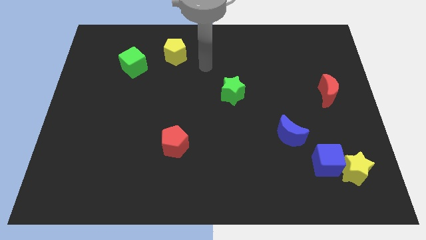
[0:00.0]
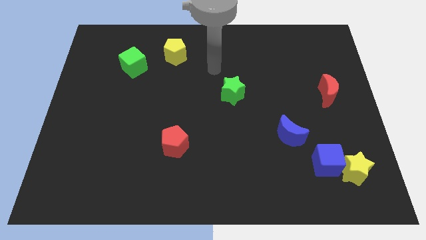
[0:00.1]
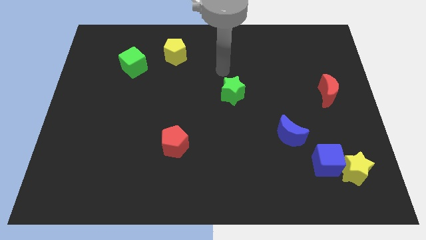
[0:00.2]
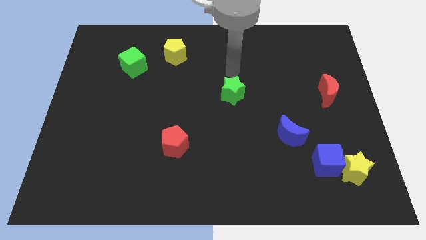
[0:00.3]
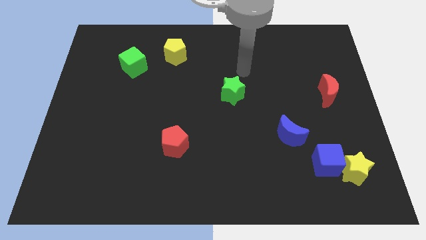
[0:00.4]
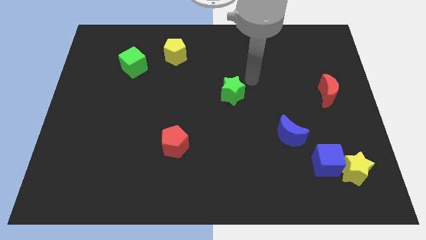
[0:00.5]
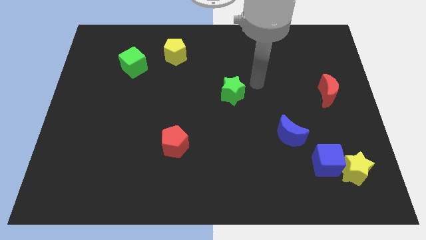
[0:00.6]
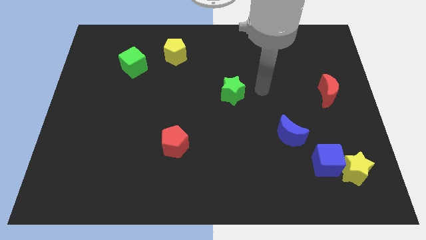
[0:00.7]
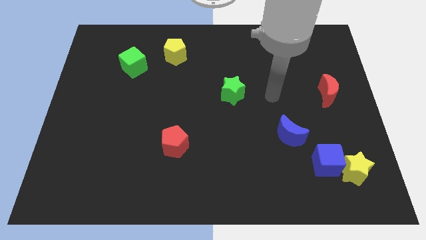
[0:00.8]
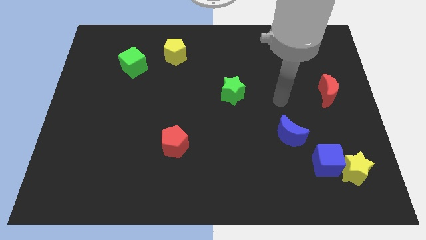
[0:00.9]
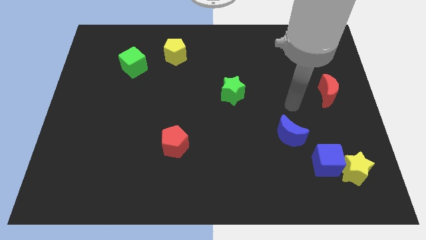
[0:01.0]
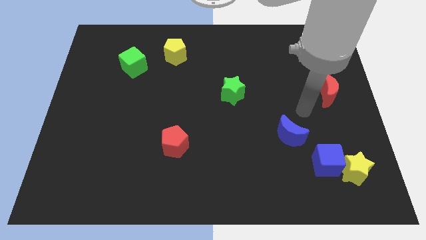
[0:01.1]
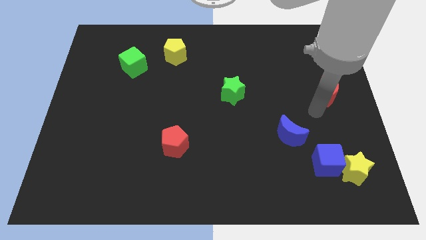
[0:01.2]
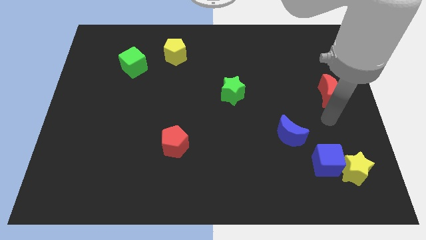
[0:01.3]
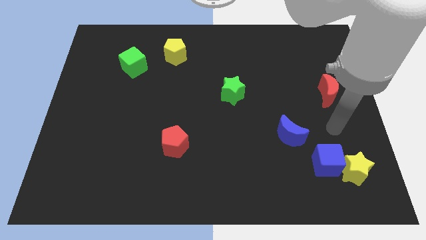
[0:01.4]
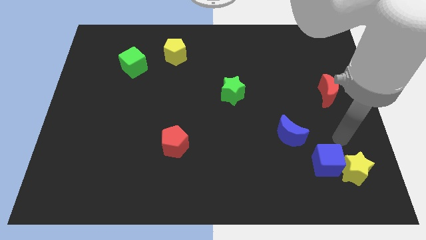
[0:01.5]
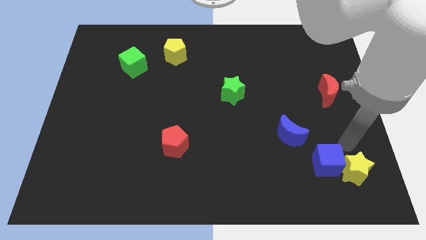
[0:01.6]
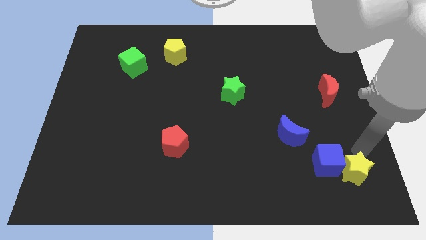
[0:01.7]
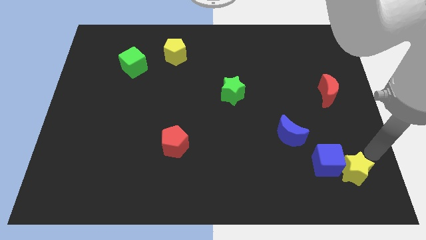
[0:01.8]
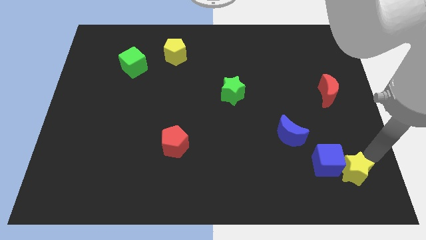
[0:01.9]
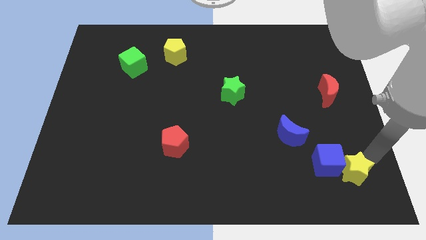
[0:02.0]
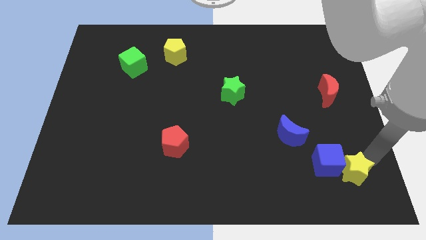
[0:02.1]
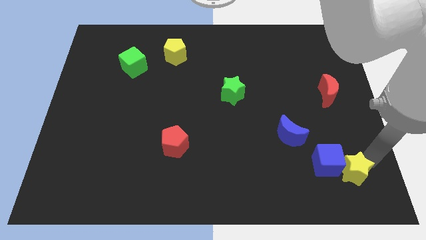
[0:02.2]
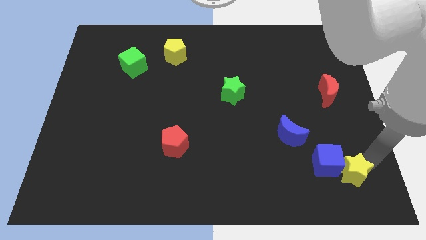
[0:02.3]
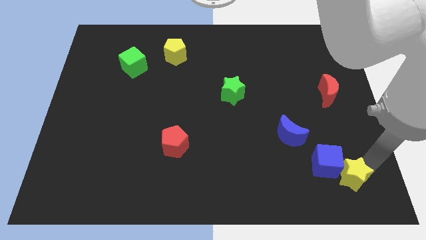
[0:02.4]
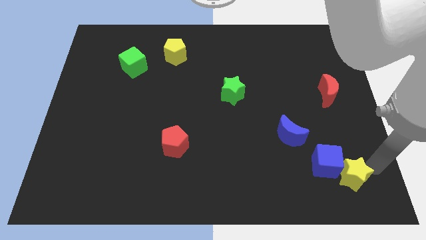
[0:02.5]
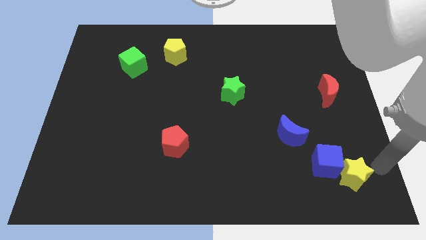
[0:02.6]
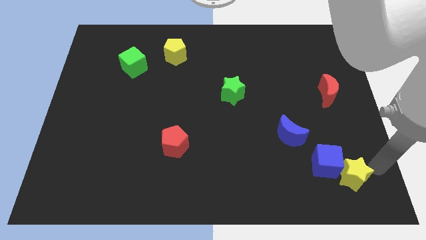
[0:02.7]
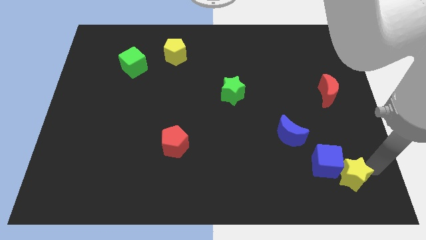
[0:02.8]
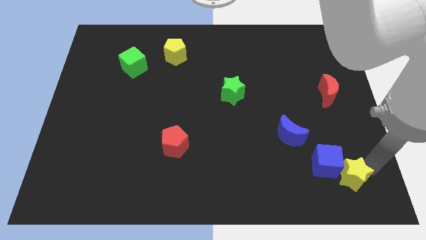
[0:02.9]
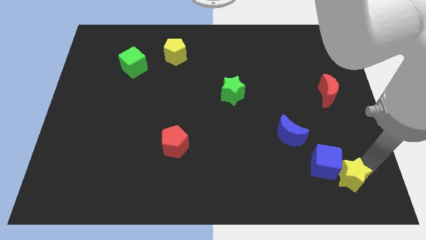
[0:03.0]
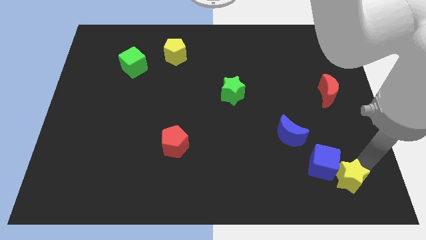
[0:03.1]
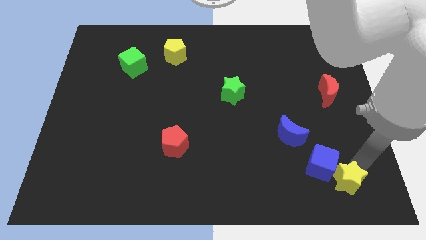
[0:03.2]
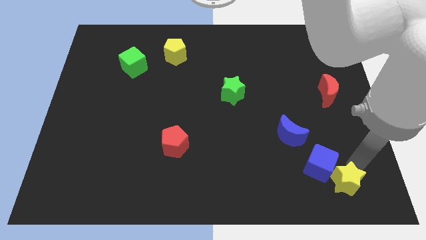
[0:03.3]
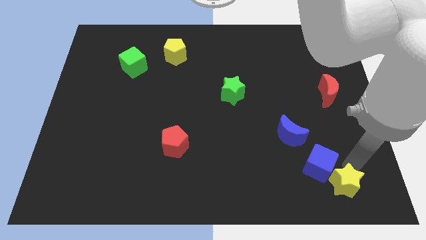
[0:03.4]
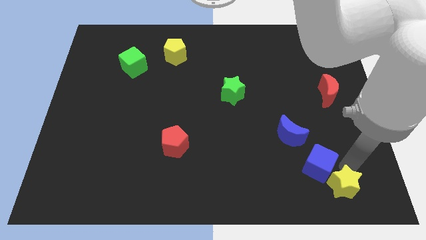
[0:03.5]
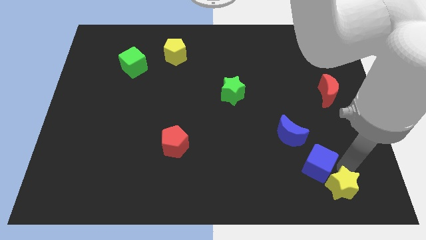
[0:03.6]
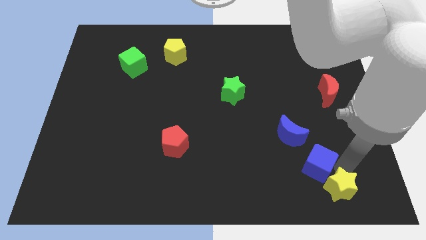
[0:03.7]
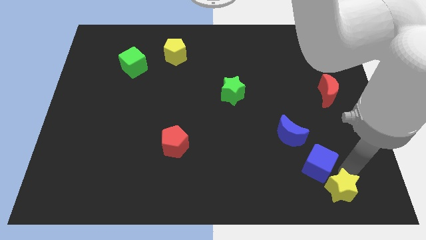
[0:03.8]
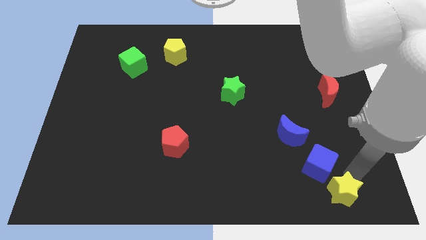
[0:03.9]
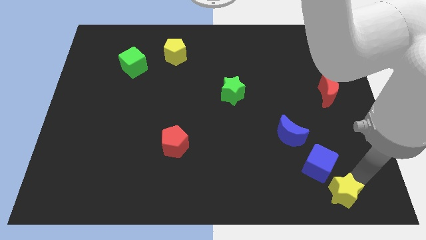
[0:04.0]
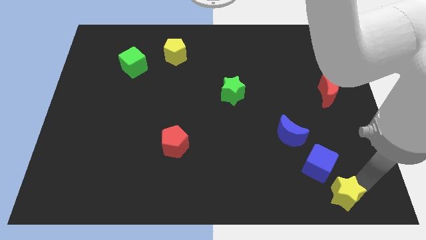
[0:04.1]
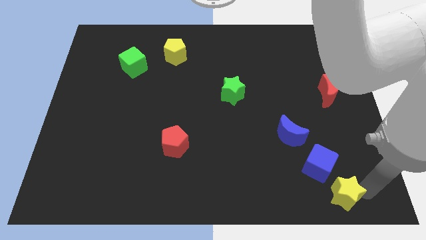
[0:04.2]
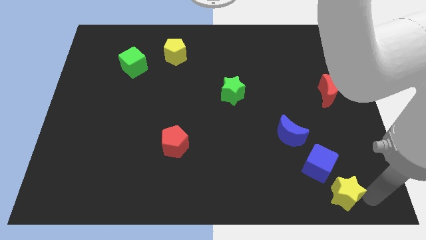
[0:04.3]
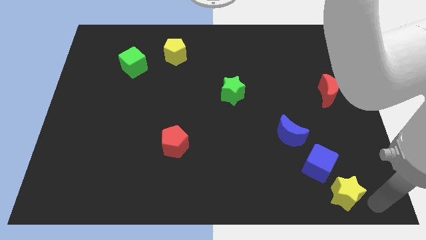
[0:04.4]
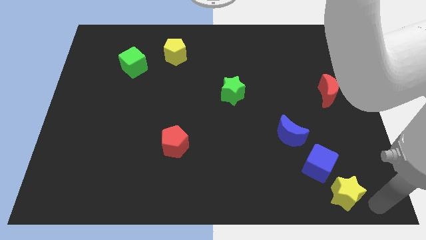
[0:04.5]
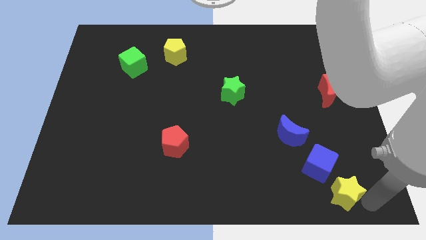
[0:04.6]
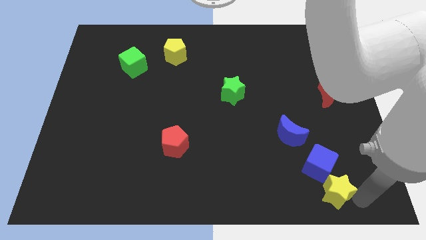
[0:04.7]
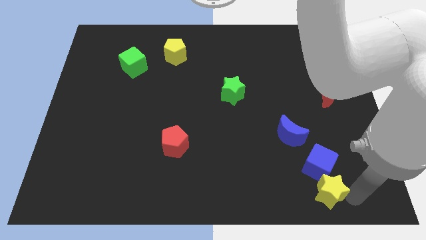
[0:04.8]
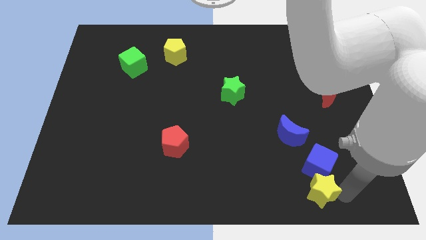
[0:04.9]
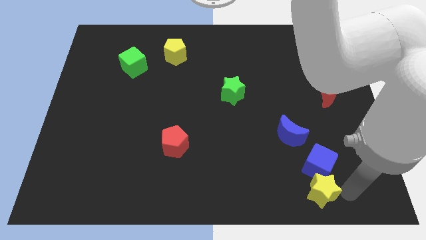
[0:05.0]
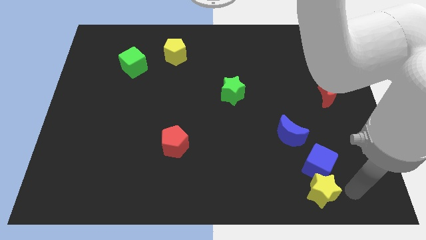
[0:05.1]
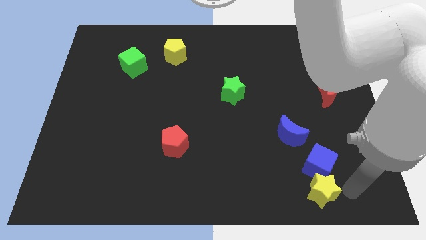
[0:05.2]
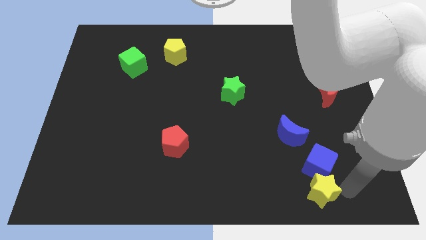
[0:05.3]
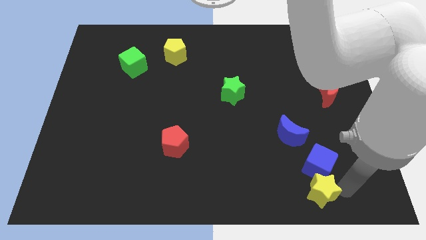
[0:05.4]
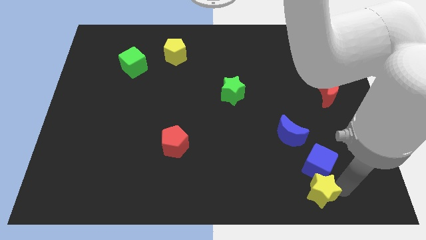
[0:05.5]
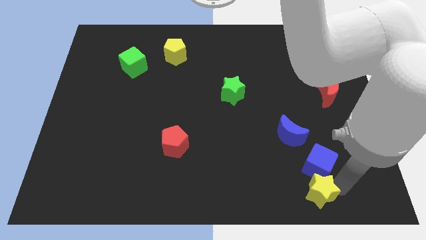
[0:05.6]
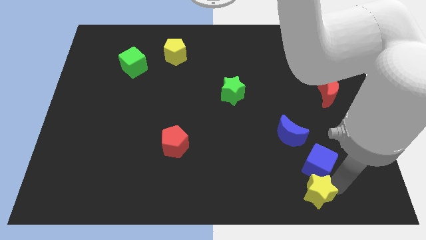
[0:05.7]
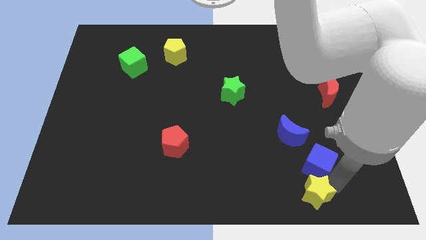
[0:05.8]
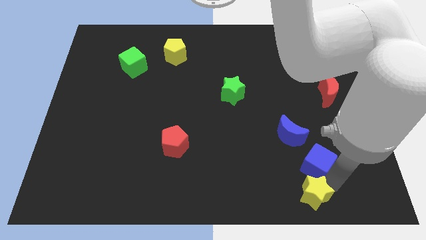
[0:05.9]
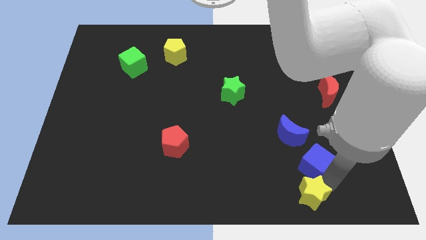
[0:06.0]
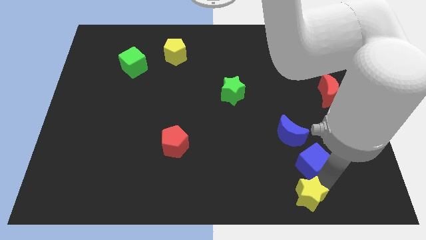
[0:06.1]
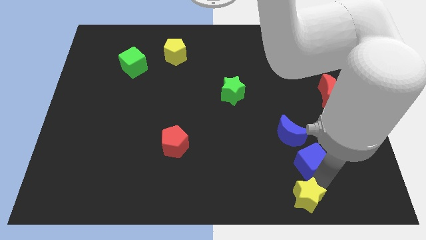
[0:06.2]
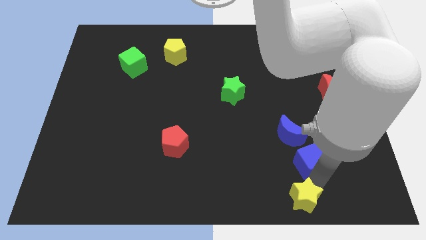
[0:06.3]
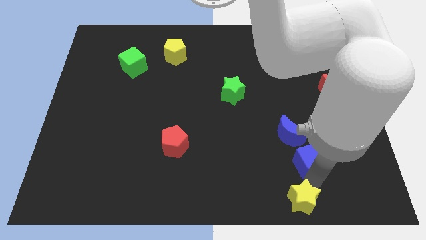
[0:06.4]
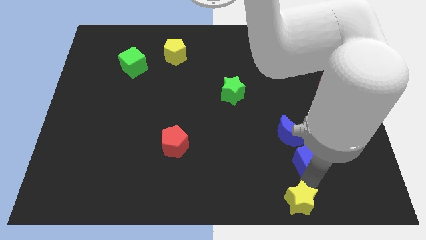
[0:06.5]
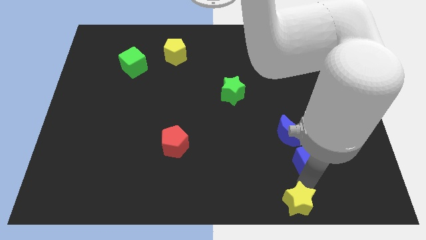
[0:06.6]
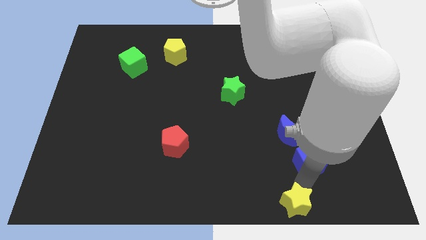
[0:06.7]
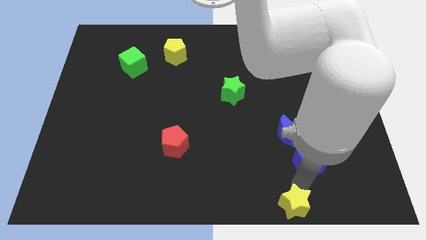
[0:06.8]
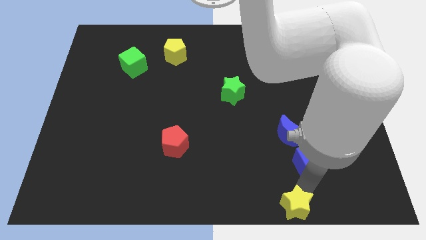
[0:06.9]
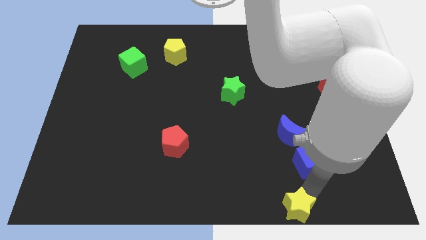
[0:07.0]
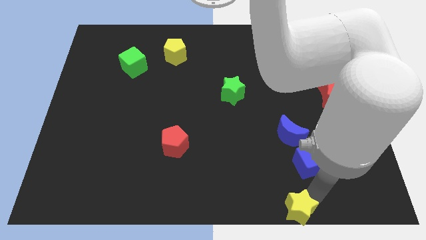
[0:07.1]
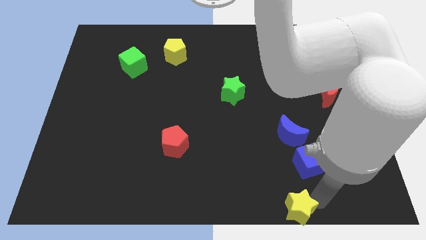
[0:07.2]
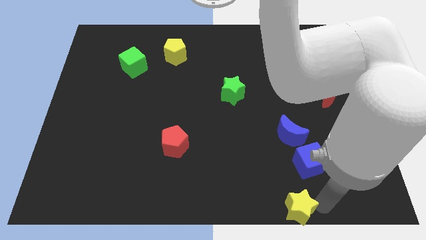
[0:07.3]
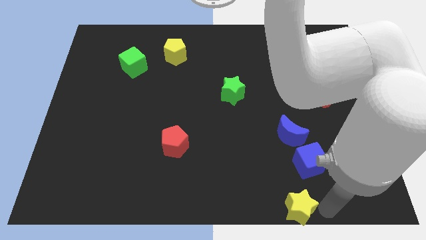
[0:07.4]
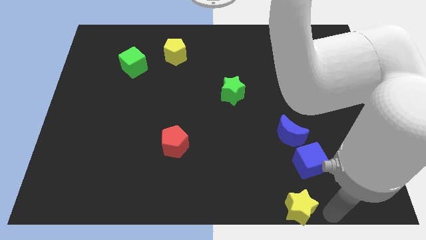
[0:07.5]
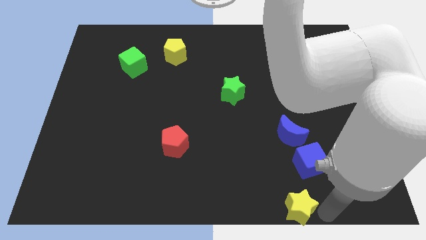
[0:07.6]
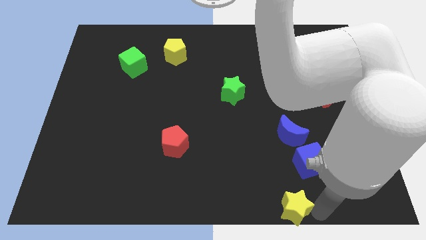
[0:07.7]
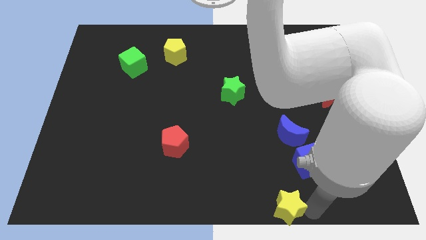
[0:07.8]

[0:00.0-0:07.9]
push the yellow star to the bottom side
